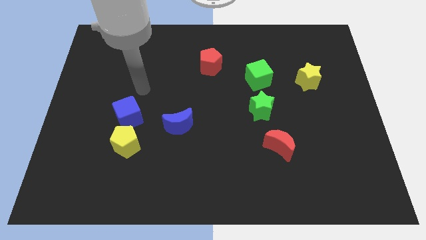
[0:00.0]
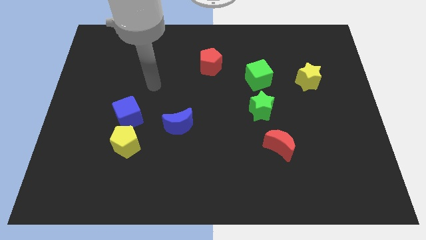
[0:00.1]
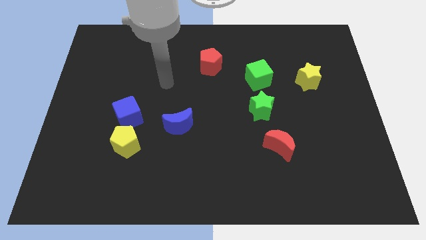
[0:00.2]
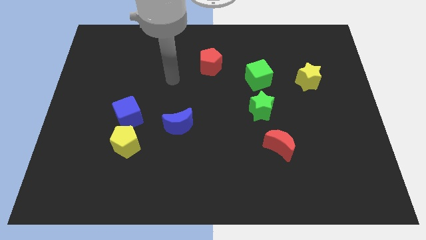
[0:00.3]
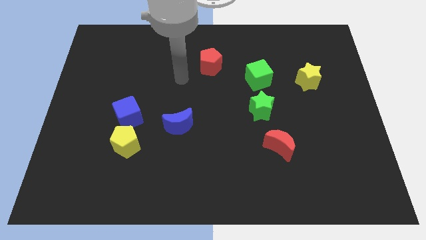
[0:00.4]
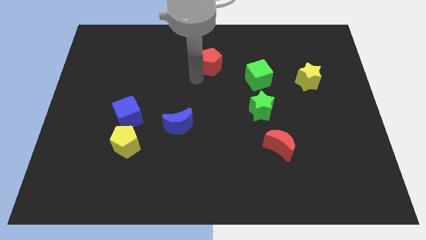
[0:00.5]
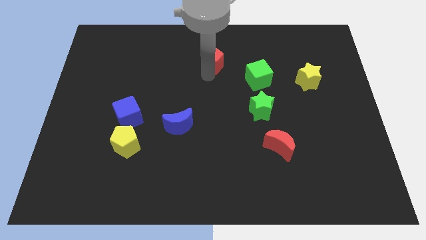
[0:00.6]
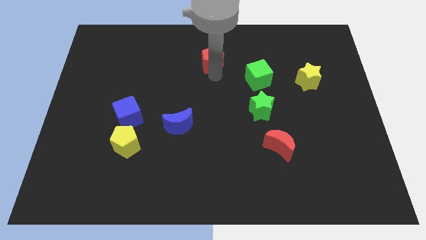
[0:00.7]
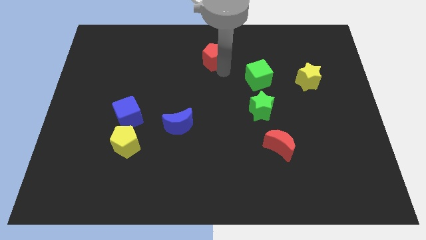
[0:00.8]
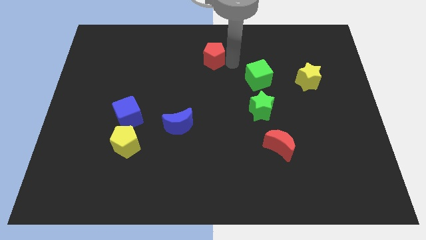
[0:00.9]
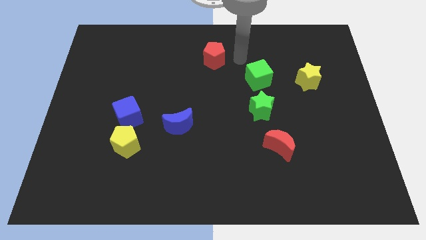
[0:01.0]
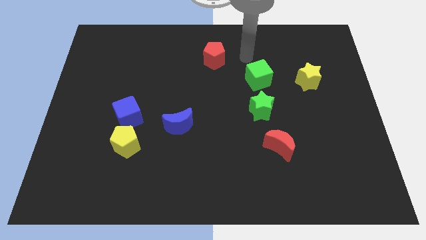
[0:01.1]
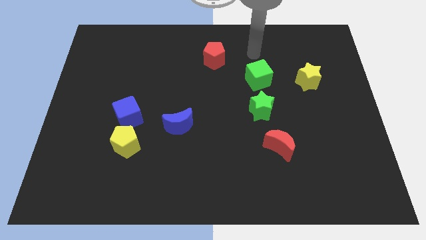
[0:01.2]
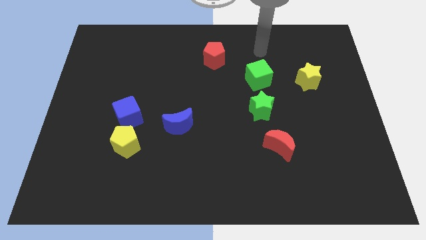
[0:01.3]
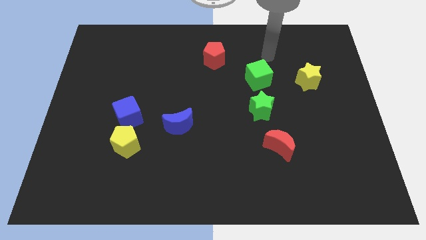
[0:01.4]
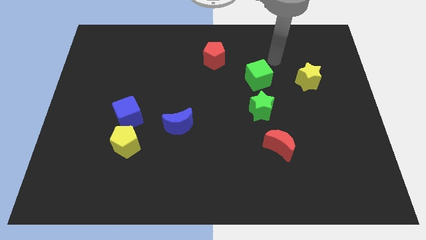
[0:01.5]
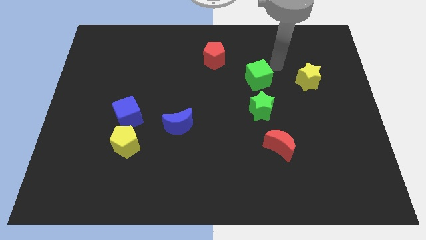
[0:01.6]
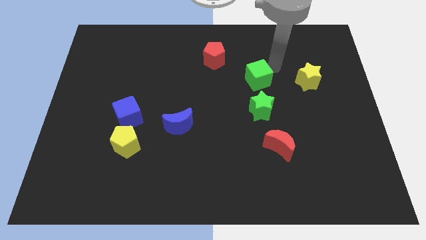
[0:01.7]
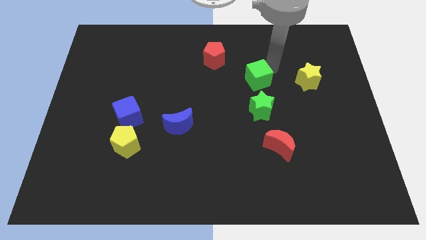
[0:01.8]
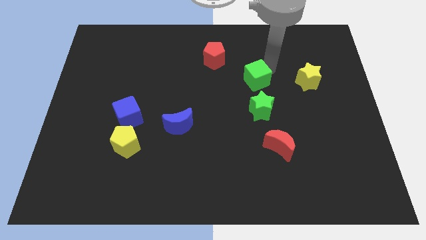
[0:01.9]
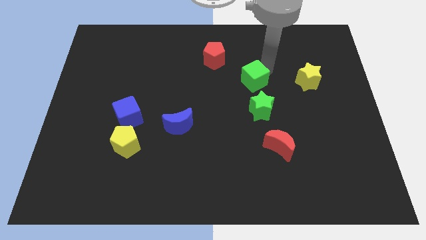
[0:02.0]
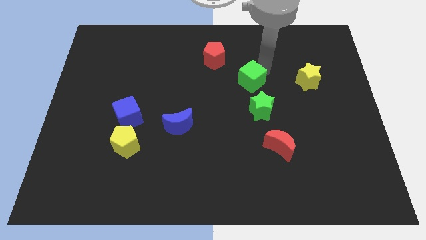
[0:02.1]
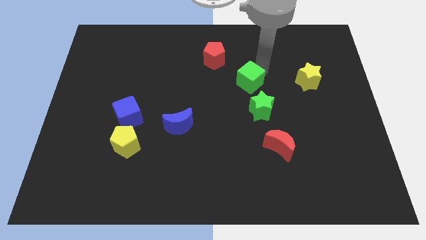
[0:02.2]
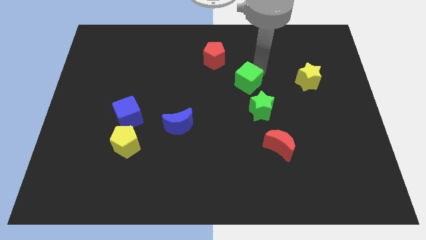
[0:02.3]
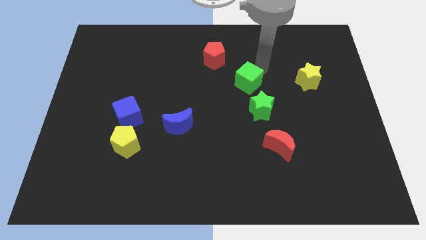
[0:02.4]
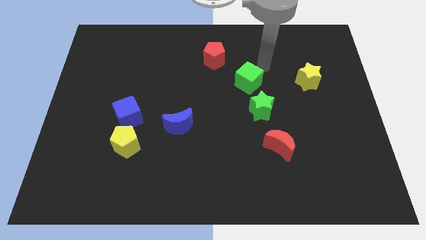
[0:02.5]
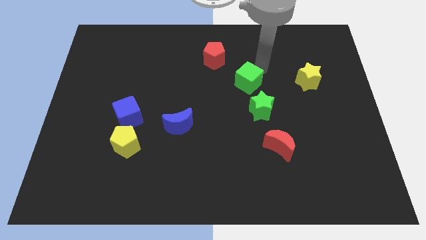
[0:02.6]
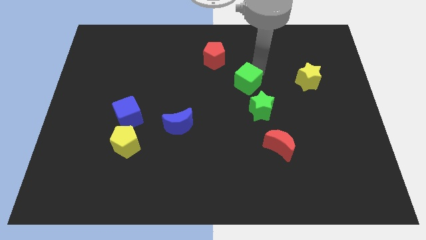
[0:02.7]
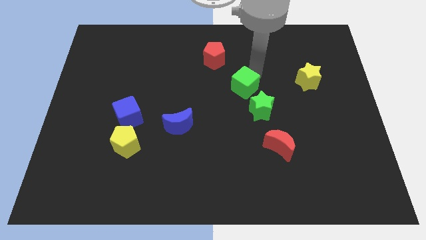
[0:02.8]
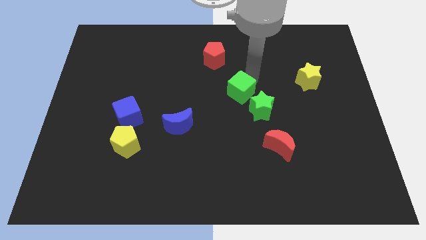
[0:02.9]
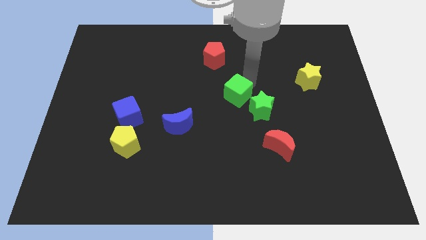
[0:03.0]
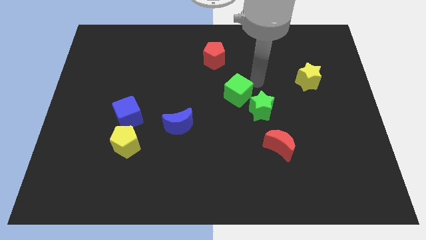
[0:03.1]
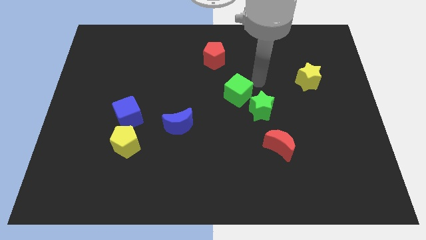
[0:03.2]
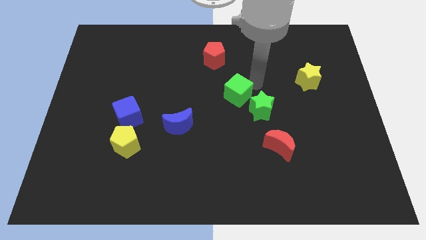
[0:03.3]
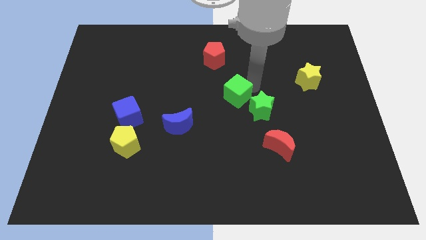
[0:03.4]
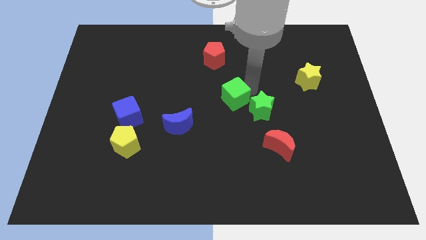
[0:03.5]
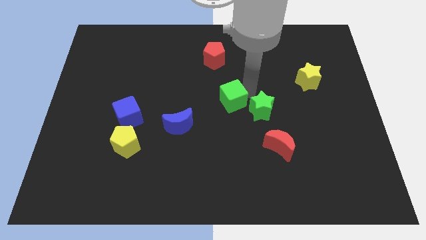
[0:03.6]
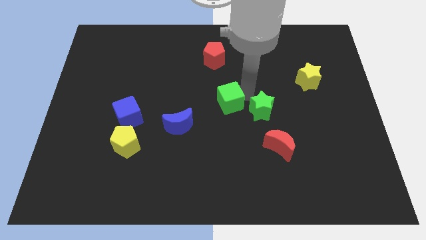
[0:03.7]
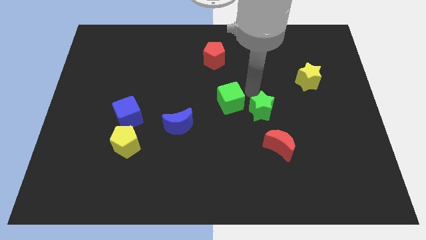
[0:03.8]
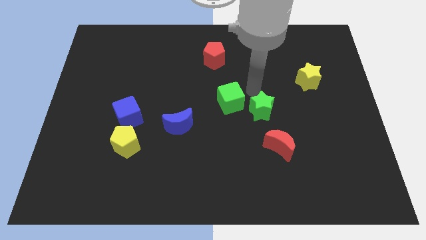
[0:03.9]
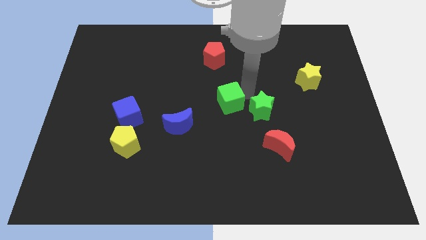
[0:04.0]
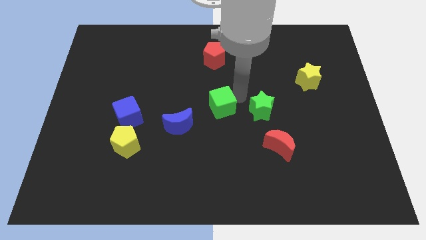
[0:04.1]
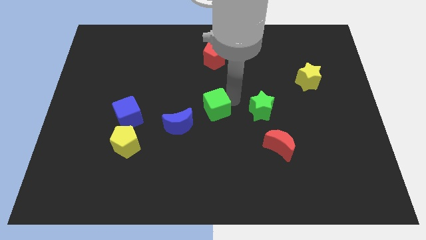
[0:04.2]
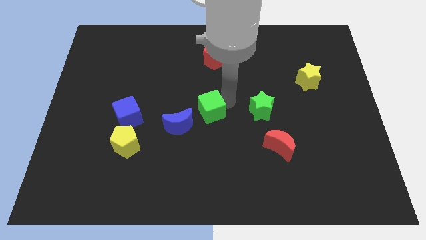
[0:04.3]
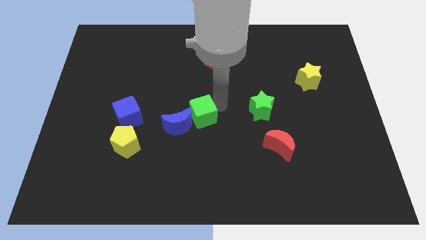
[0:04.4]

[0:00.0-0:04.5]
move the green cube next to the blue moon

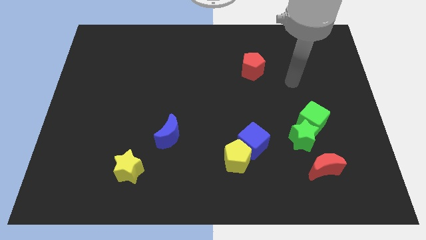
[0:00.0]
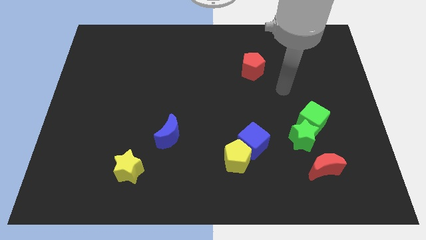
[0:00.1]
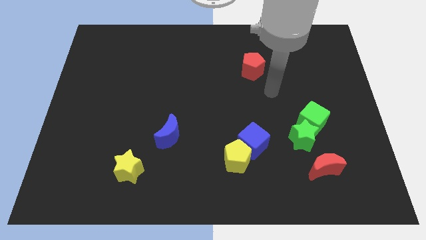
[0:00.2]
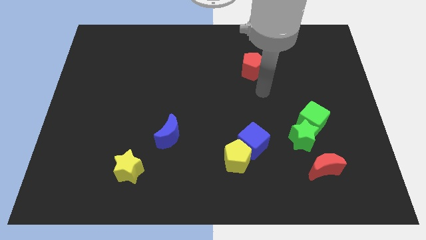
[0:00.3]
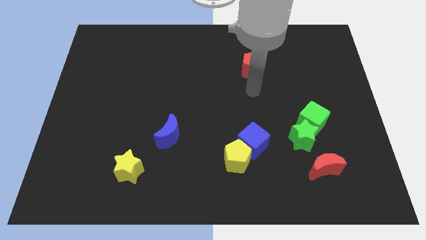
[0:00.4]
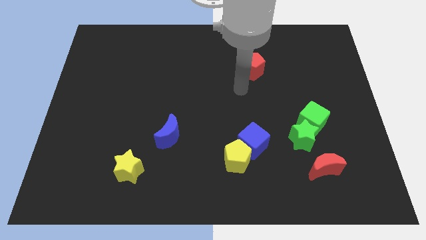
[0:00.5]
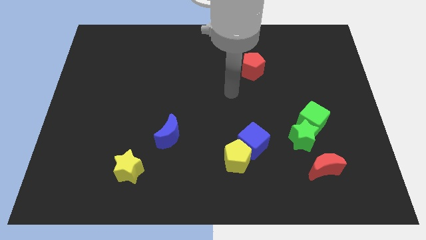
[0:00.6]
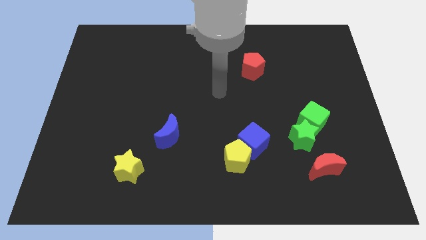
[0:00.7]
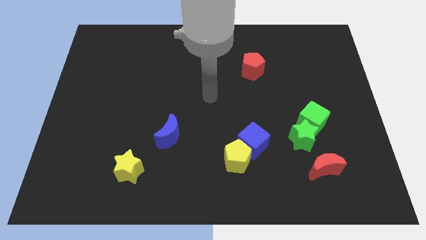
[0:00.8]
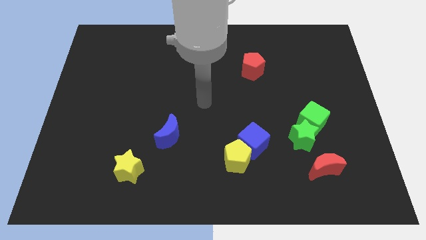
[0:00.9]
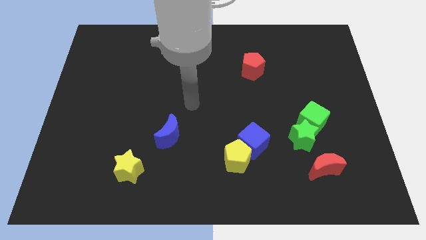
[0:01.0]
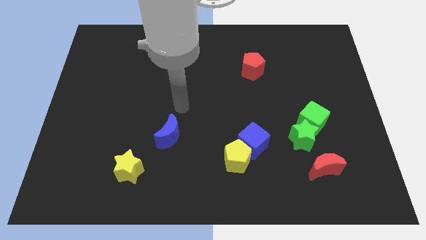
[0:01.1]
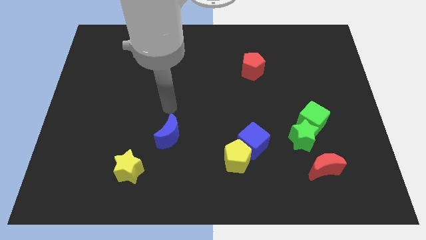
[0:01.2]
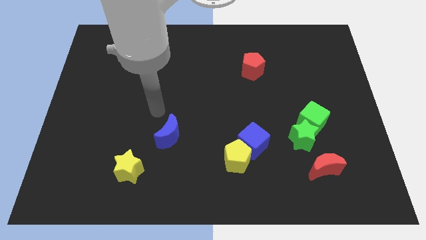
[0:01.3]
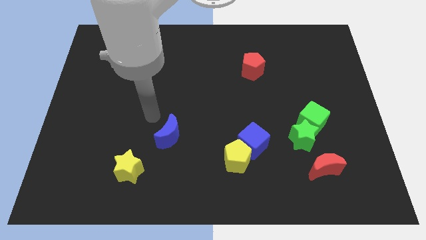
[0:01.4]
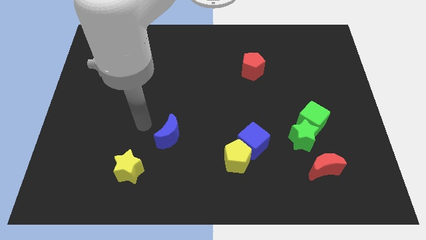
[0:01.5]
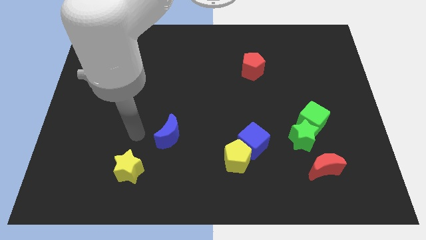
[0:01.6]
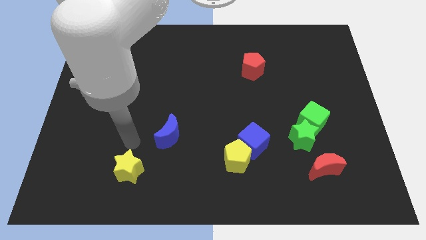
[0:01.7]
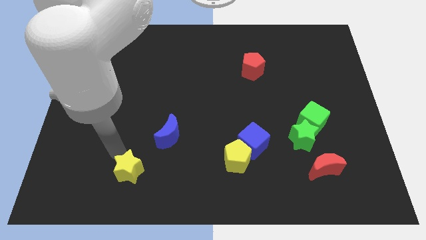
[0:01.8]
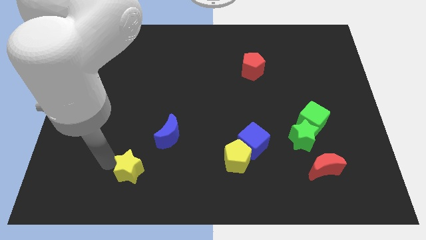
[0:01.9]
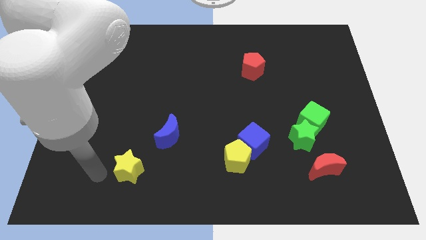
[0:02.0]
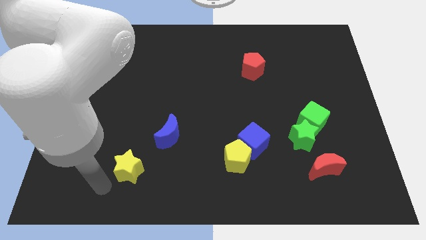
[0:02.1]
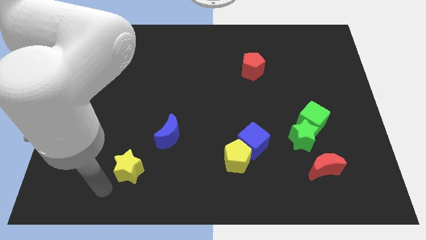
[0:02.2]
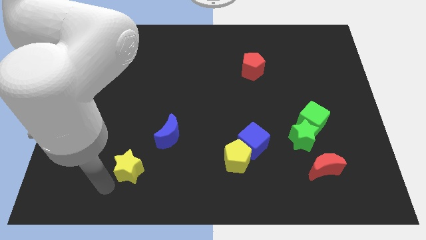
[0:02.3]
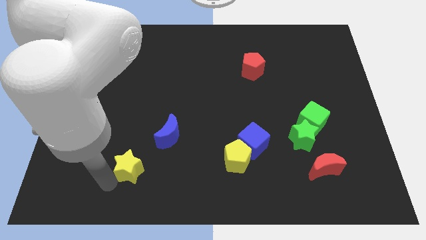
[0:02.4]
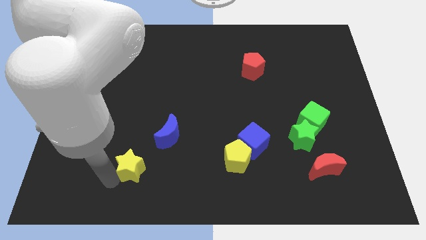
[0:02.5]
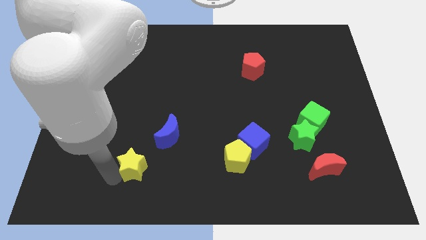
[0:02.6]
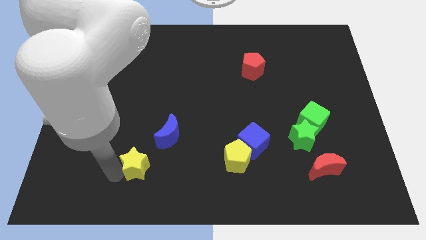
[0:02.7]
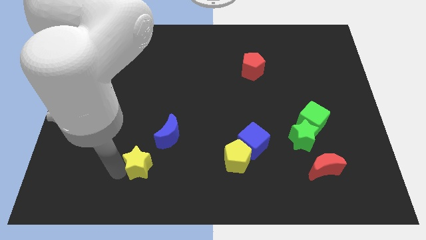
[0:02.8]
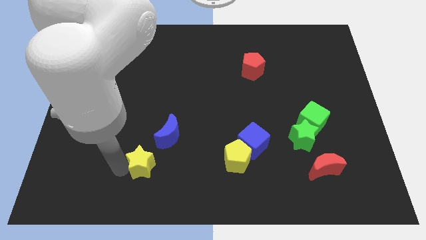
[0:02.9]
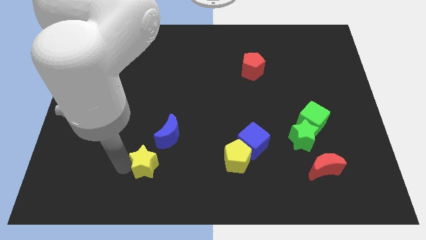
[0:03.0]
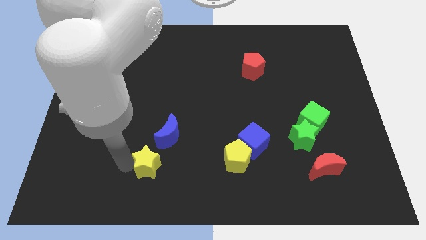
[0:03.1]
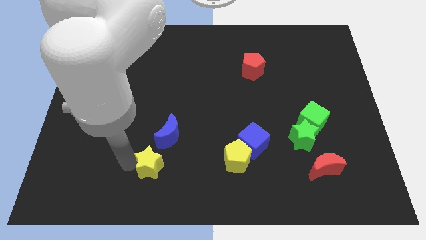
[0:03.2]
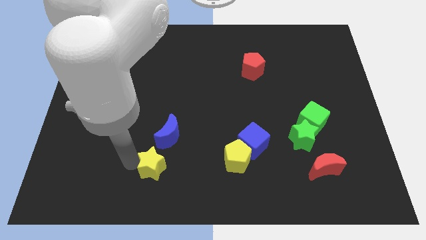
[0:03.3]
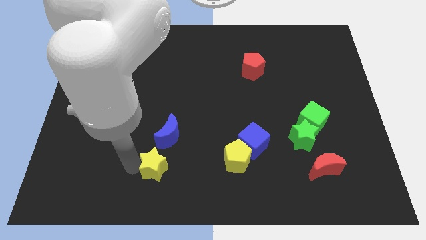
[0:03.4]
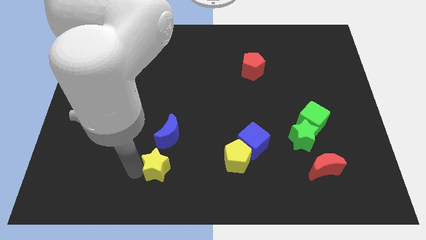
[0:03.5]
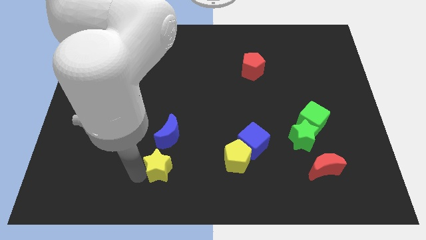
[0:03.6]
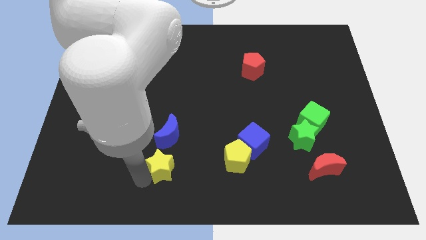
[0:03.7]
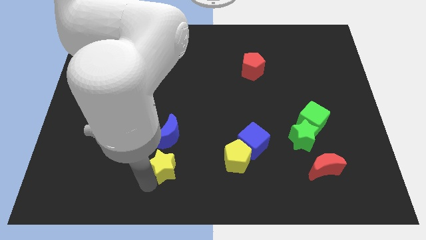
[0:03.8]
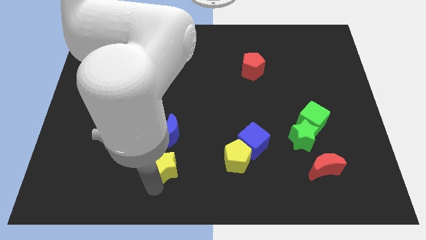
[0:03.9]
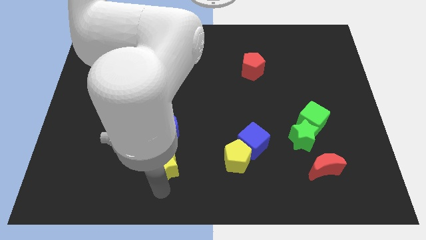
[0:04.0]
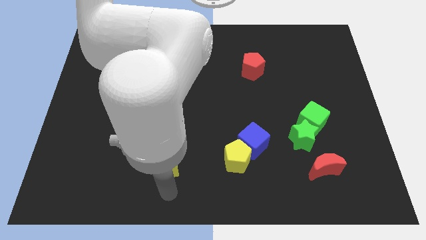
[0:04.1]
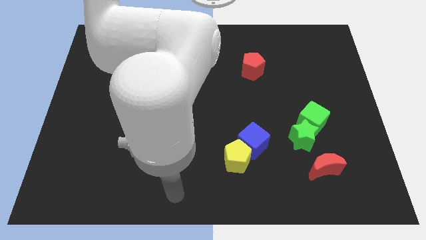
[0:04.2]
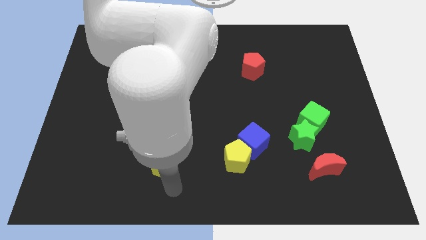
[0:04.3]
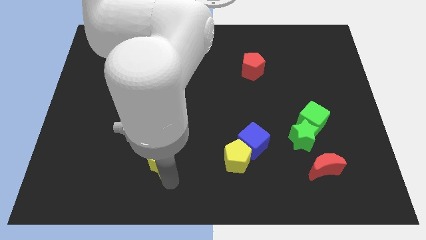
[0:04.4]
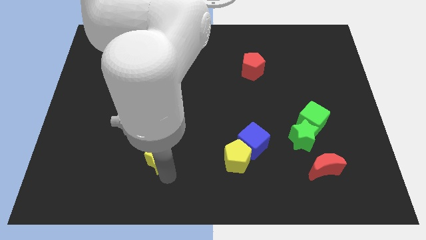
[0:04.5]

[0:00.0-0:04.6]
push the yellow star towards the blue moon
